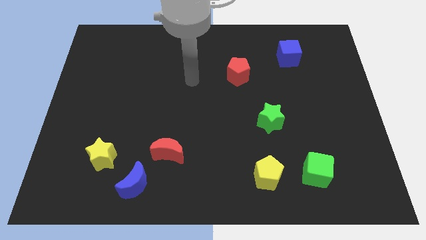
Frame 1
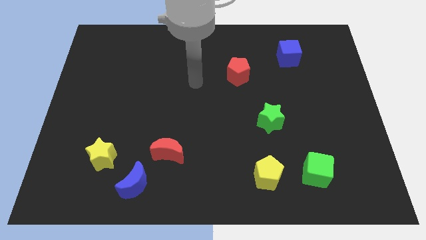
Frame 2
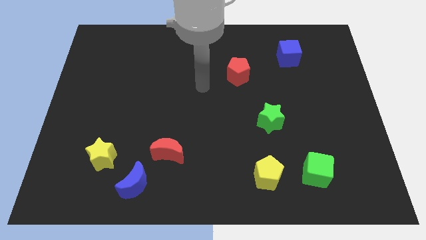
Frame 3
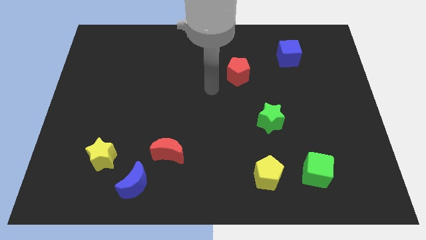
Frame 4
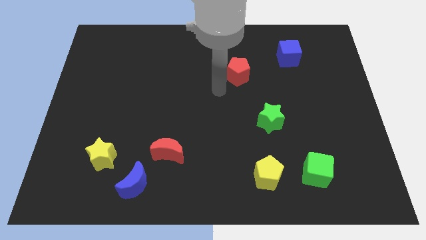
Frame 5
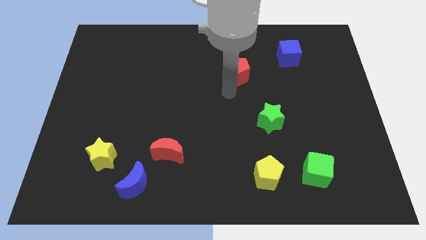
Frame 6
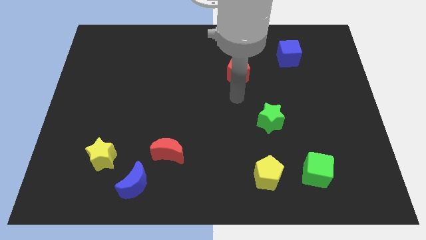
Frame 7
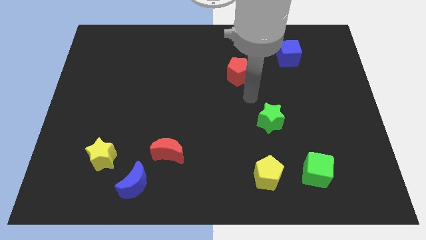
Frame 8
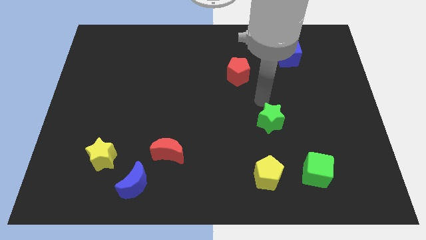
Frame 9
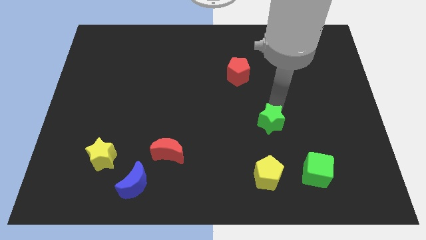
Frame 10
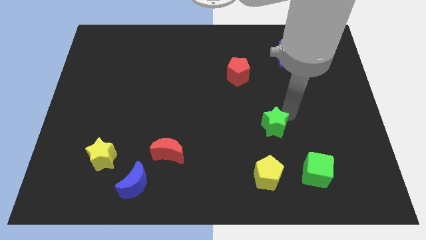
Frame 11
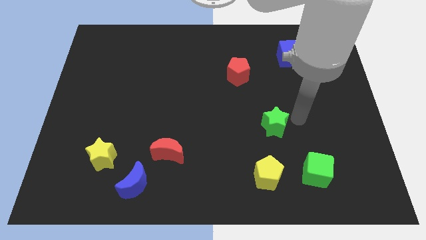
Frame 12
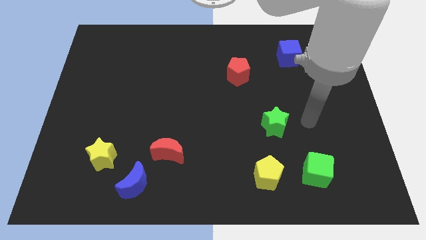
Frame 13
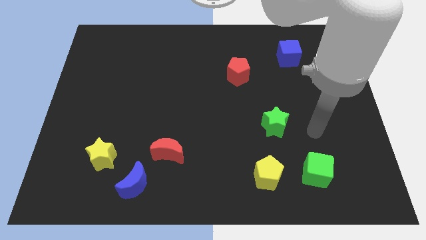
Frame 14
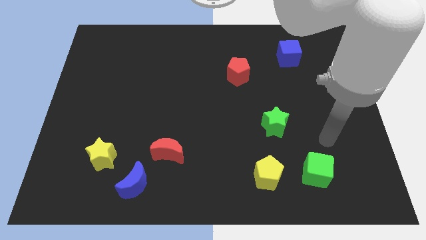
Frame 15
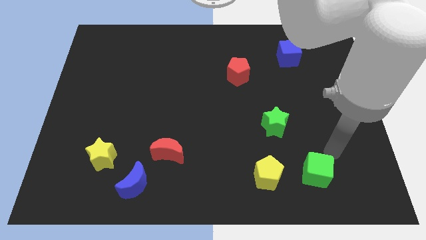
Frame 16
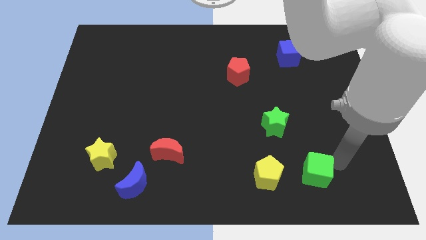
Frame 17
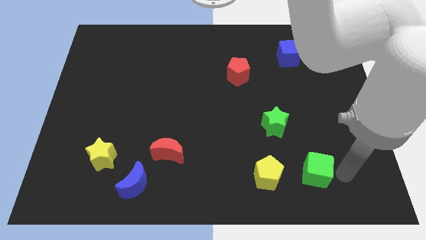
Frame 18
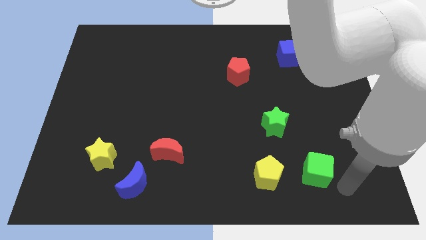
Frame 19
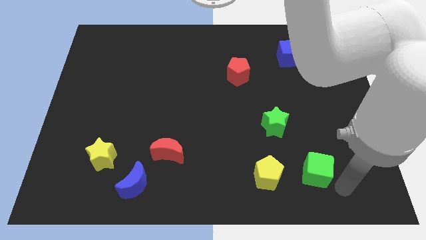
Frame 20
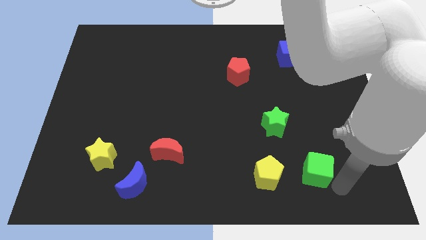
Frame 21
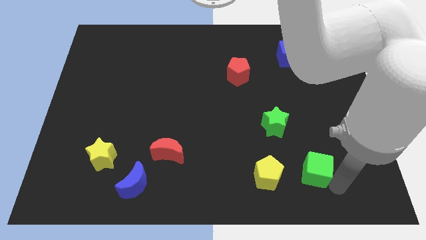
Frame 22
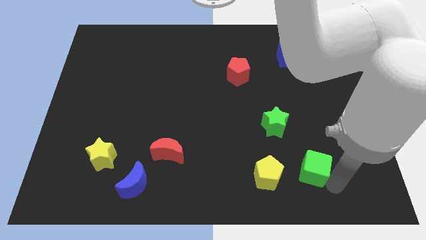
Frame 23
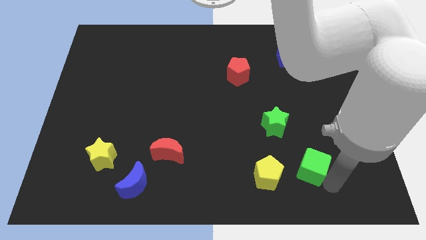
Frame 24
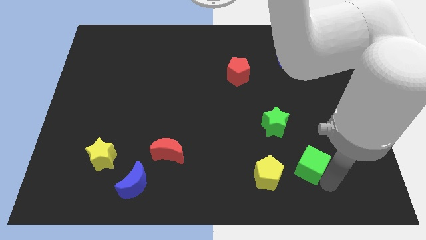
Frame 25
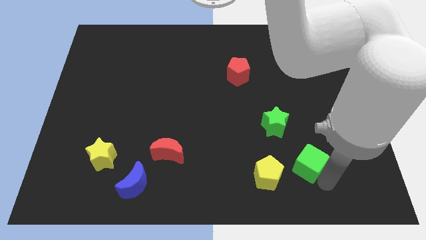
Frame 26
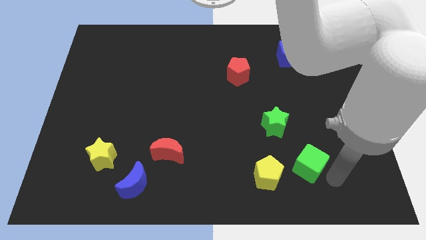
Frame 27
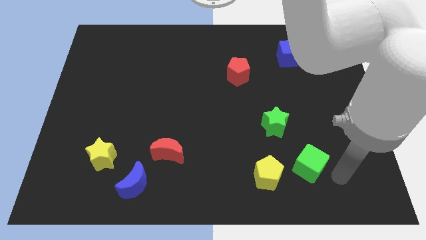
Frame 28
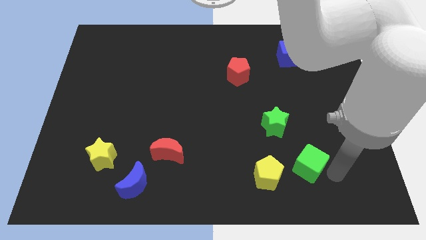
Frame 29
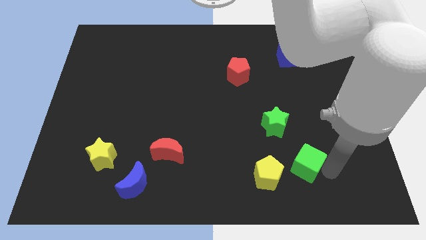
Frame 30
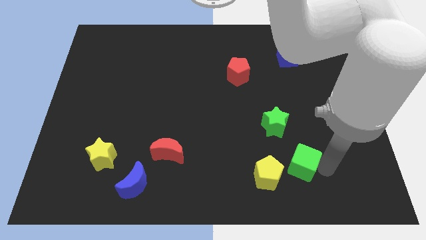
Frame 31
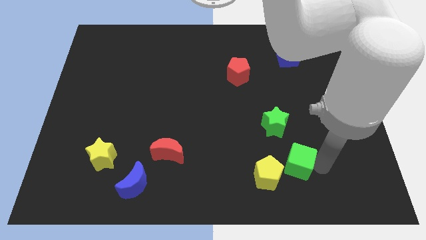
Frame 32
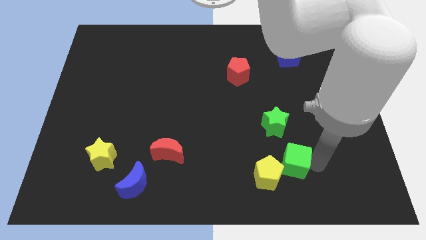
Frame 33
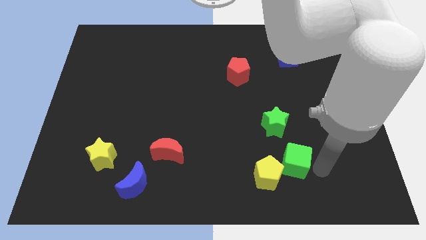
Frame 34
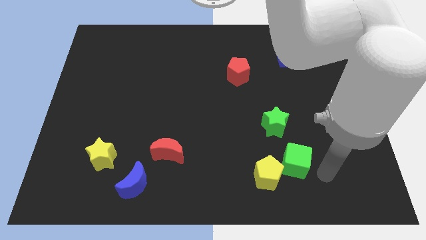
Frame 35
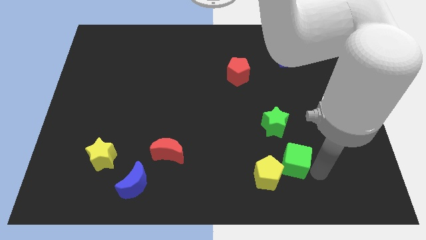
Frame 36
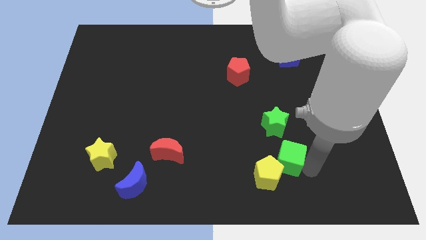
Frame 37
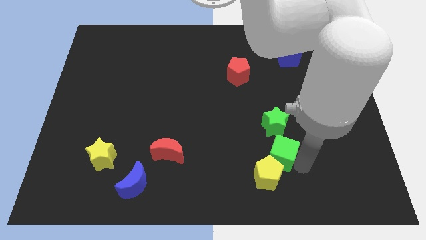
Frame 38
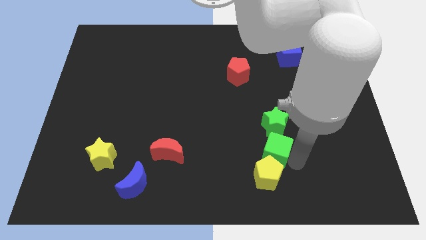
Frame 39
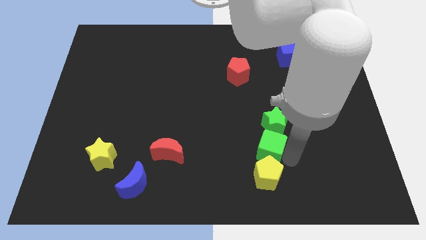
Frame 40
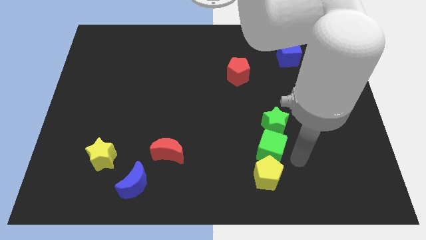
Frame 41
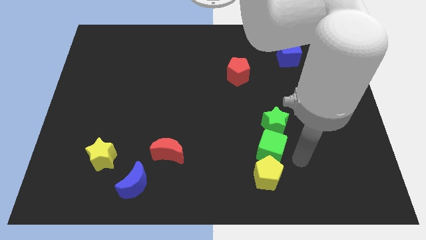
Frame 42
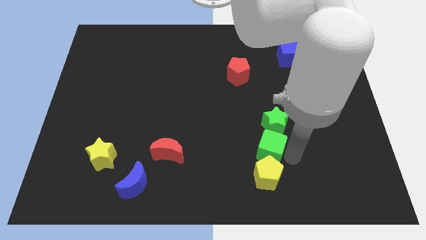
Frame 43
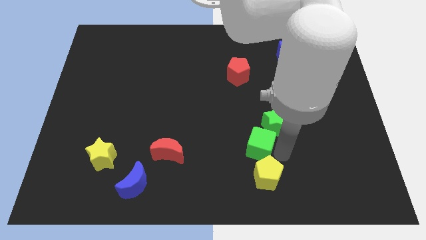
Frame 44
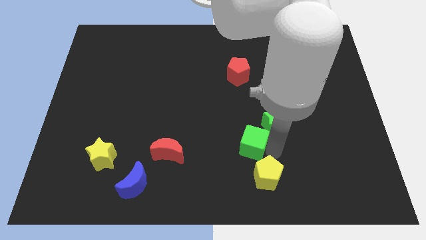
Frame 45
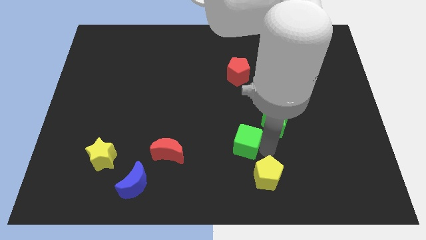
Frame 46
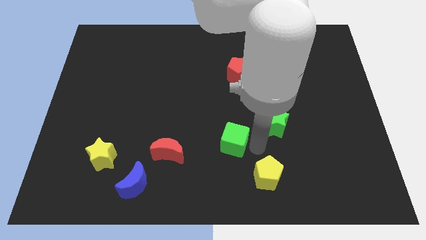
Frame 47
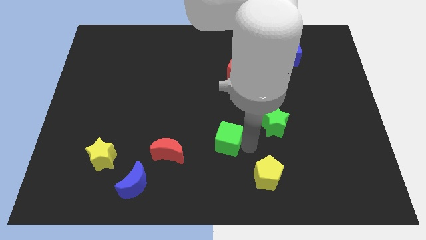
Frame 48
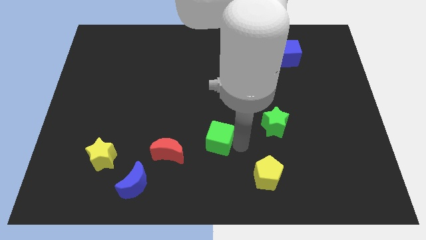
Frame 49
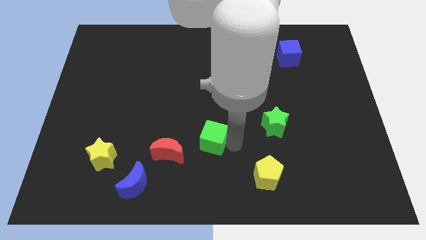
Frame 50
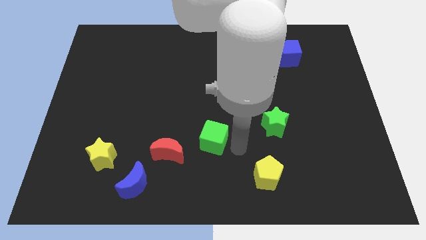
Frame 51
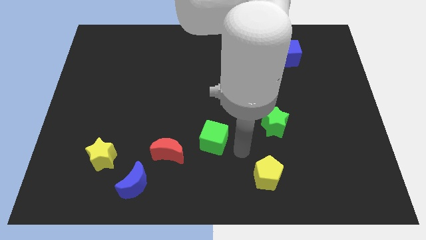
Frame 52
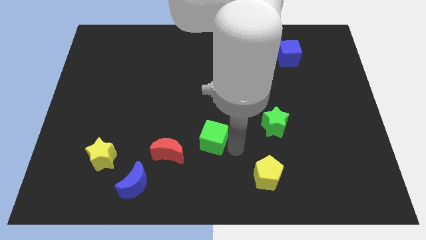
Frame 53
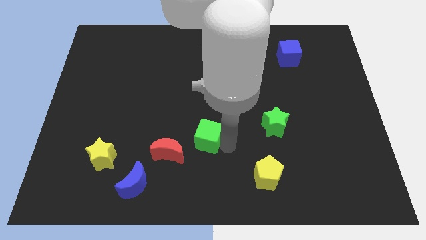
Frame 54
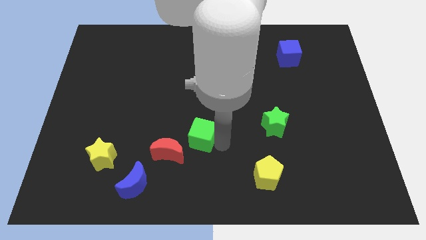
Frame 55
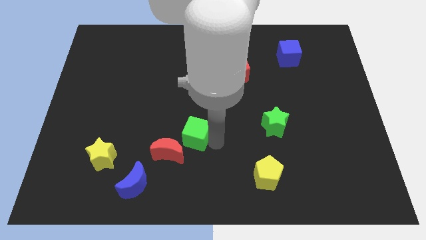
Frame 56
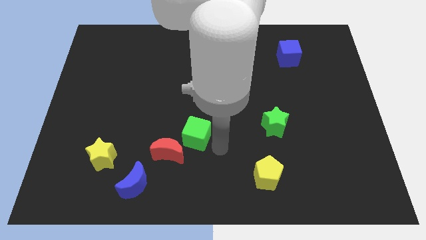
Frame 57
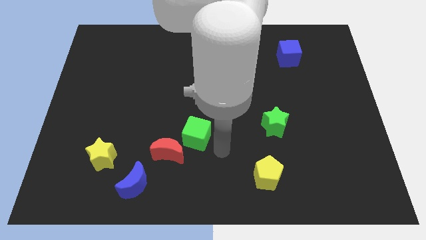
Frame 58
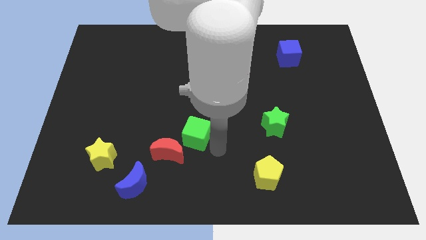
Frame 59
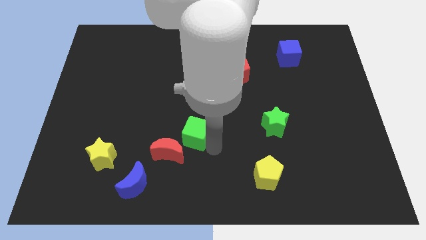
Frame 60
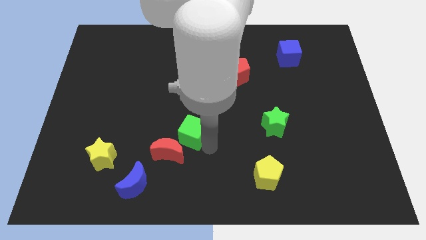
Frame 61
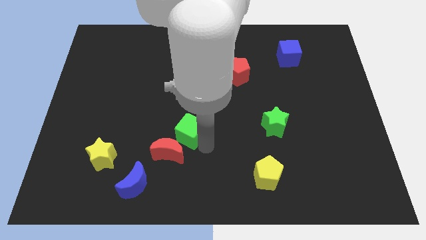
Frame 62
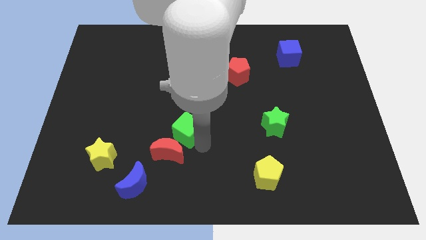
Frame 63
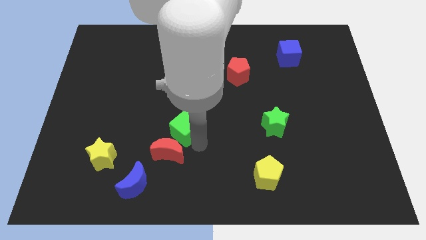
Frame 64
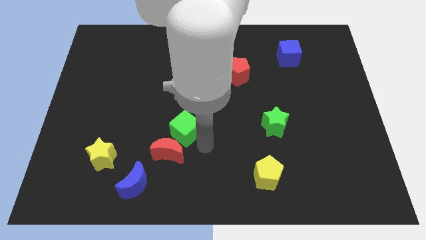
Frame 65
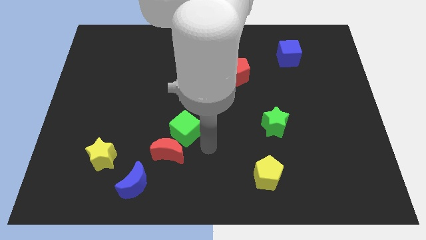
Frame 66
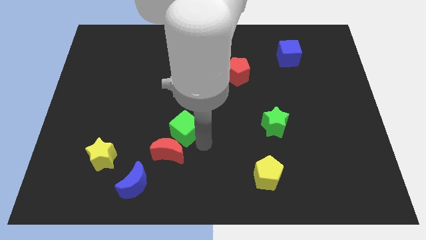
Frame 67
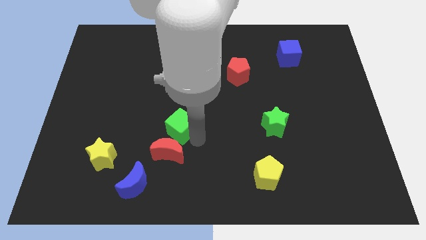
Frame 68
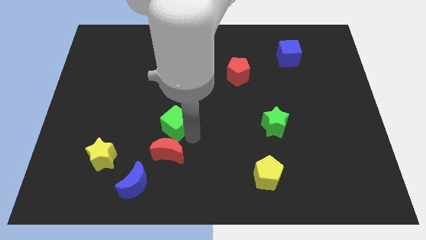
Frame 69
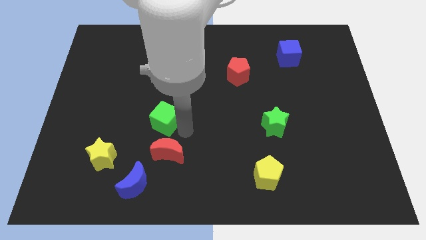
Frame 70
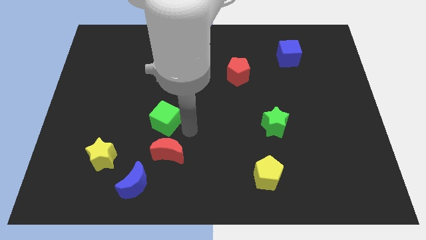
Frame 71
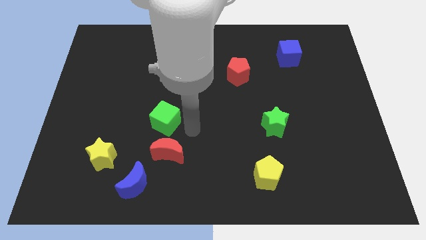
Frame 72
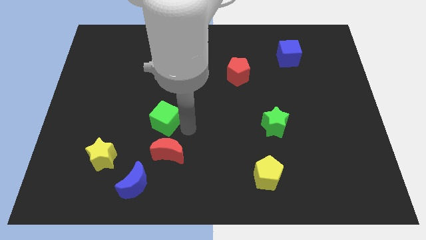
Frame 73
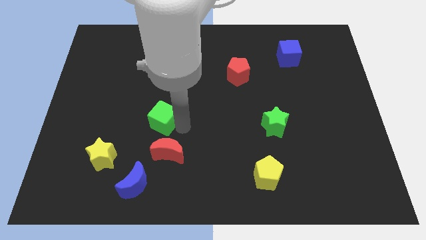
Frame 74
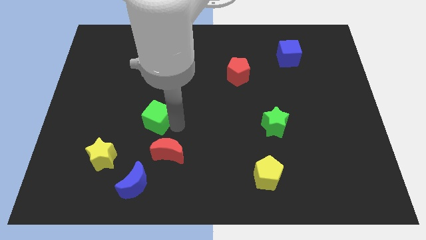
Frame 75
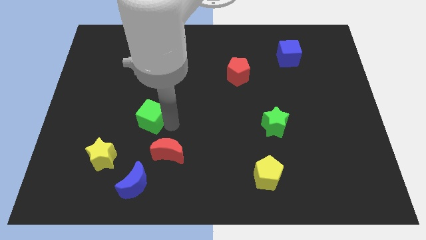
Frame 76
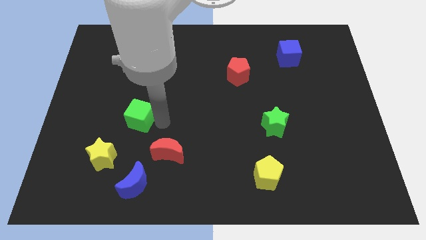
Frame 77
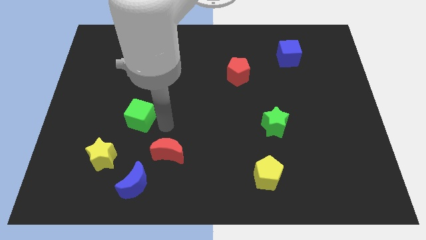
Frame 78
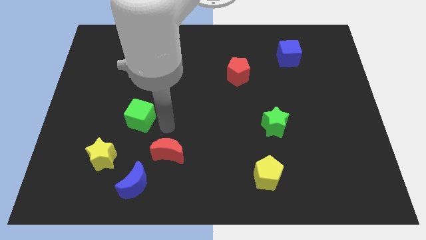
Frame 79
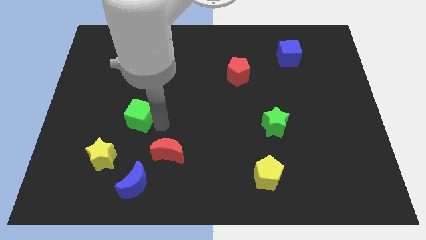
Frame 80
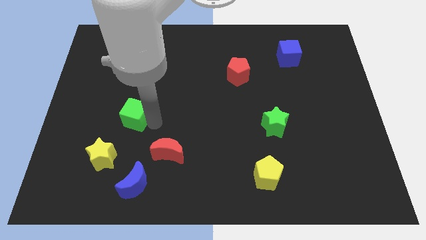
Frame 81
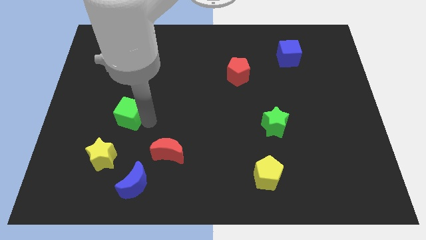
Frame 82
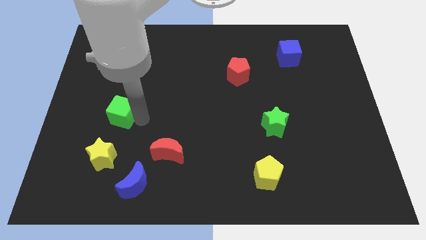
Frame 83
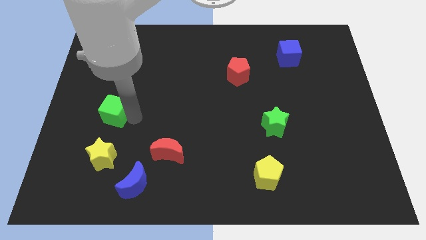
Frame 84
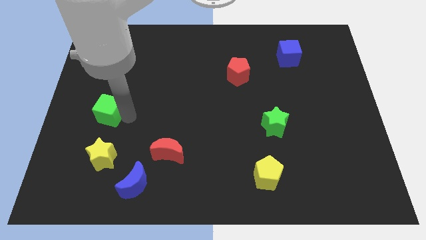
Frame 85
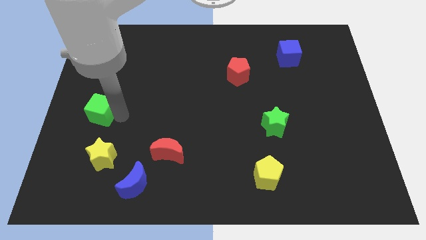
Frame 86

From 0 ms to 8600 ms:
put the green cube to the center left
